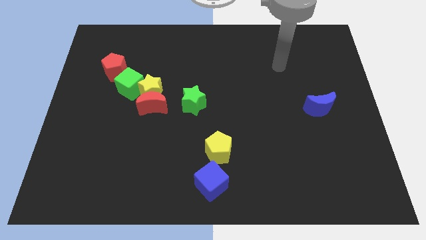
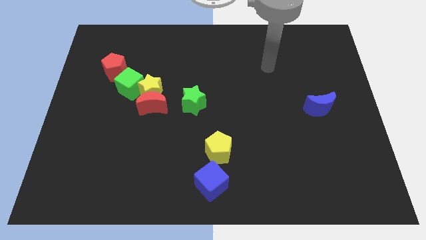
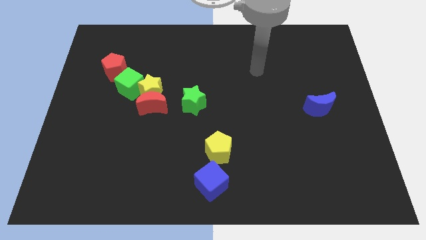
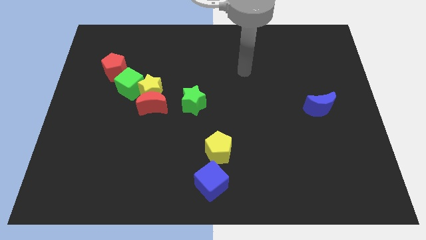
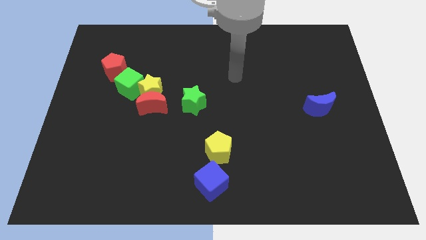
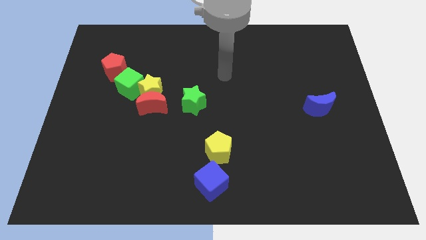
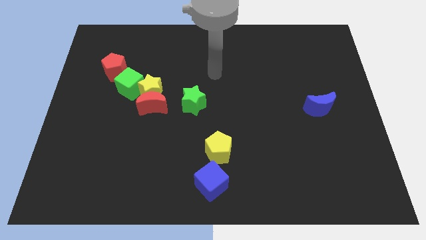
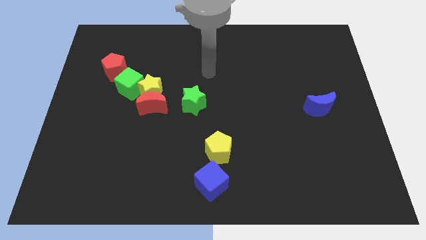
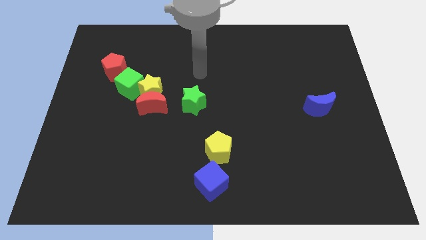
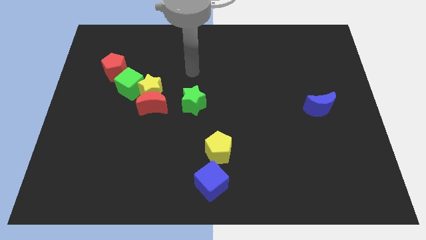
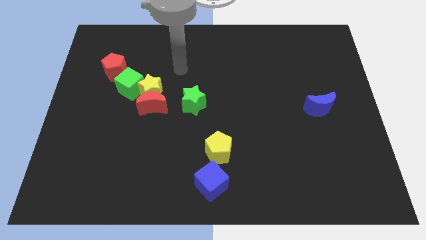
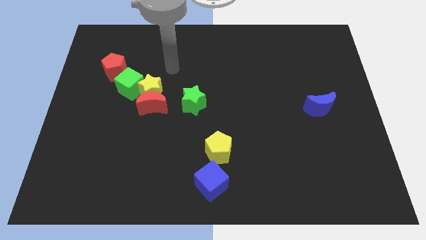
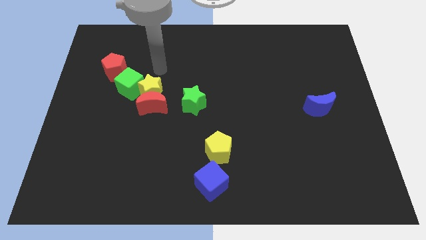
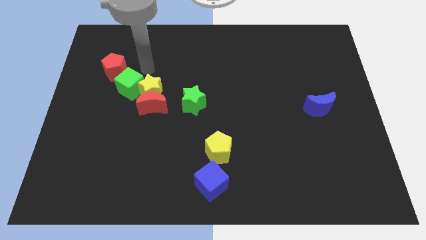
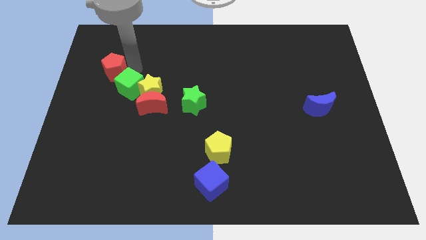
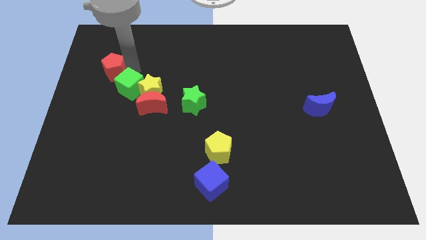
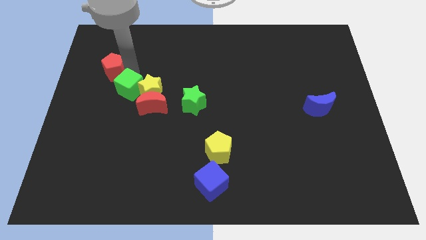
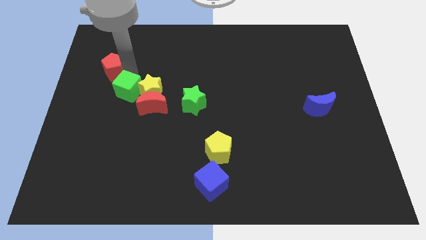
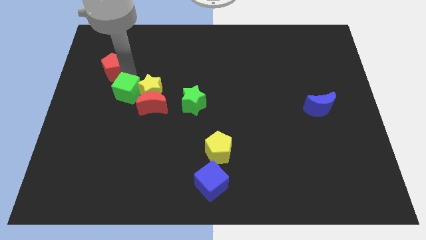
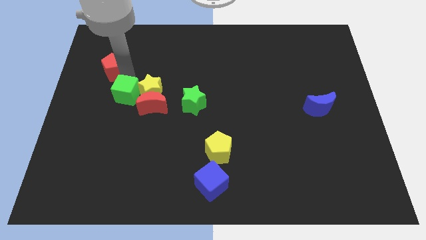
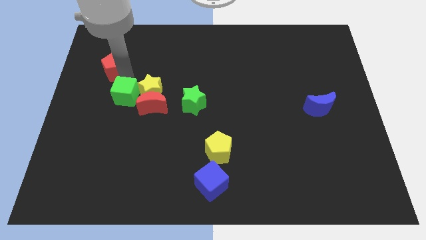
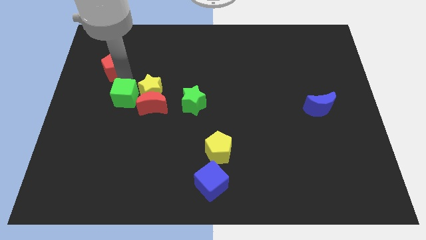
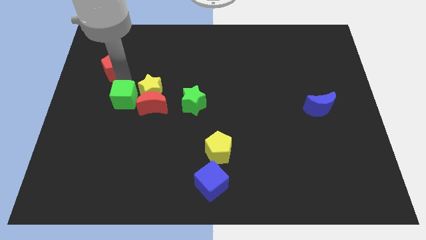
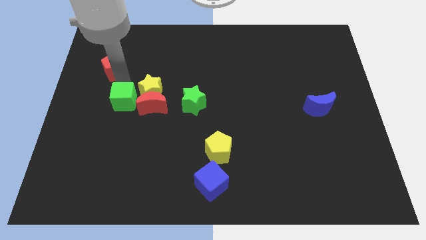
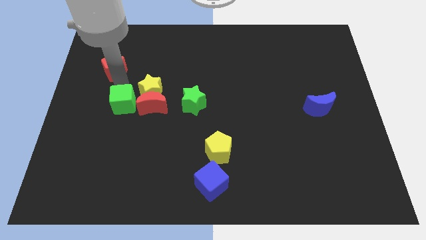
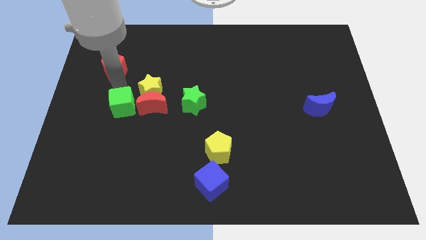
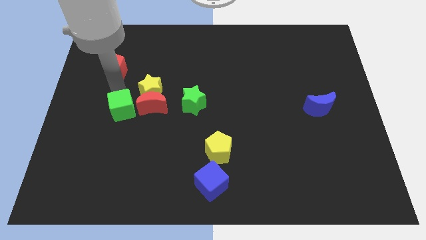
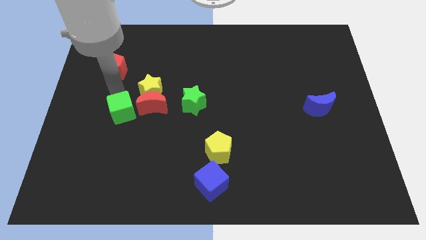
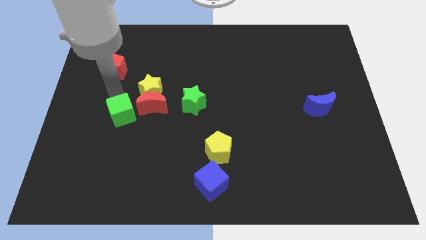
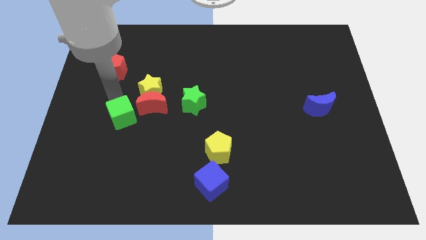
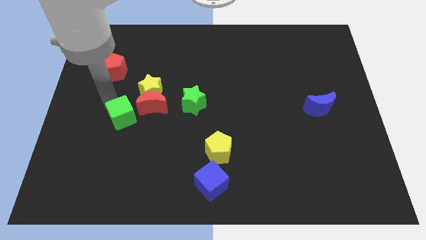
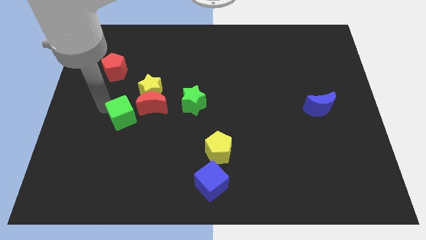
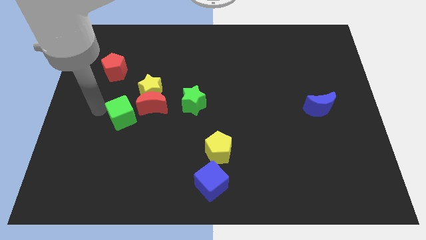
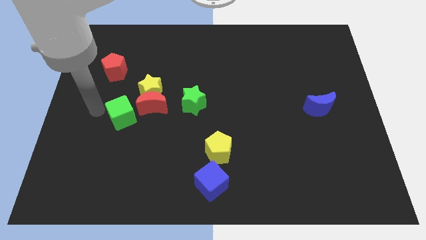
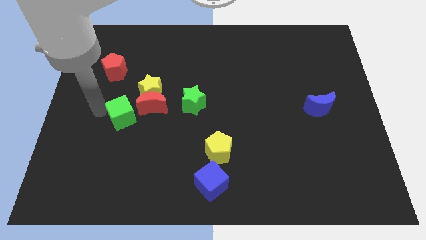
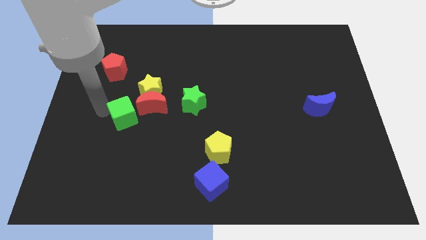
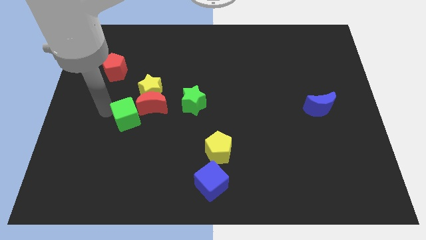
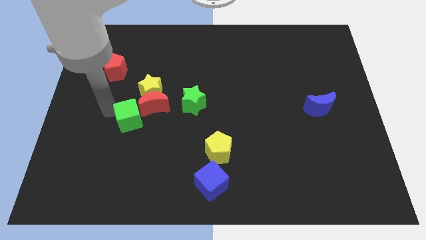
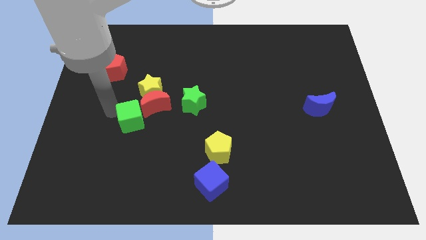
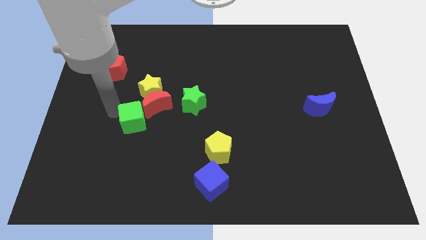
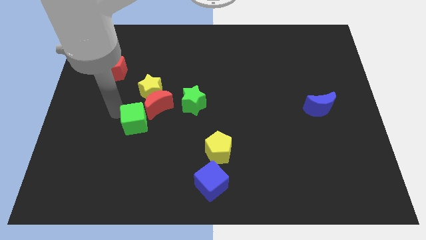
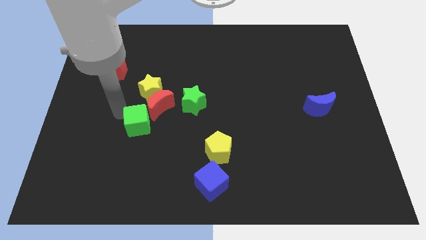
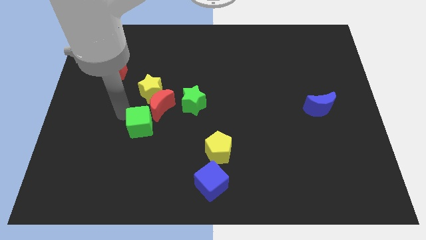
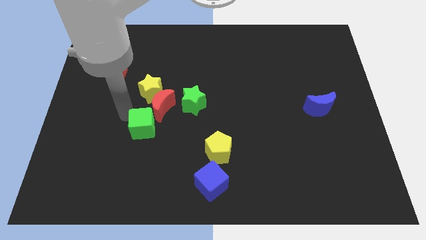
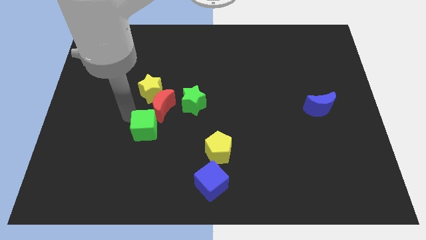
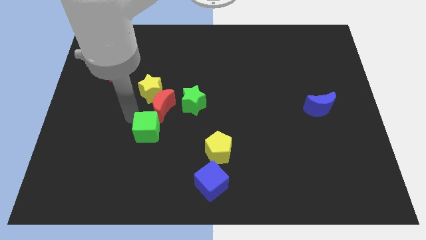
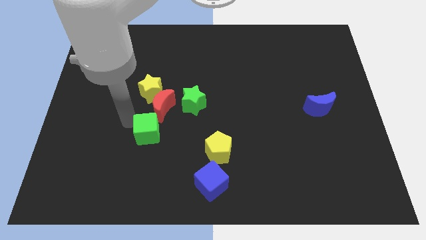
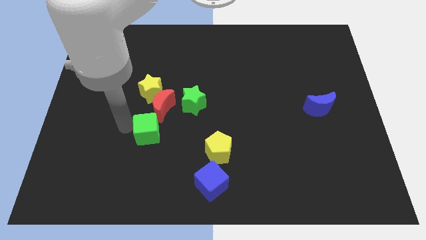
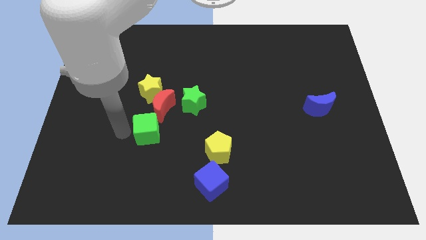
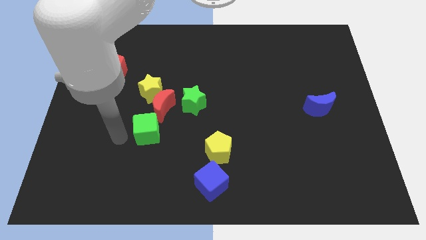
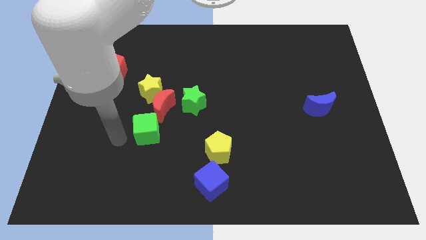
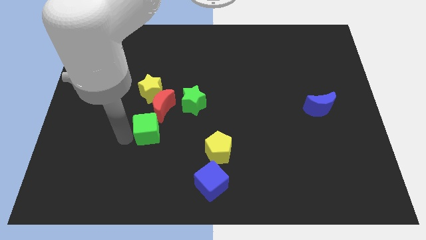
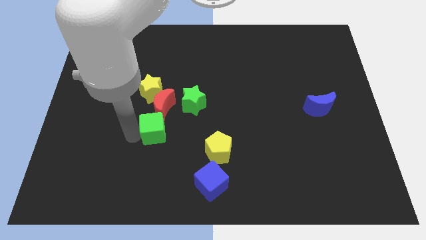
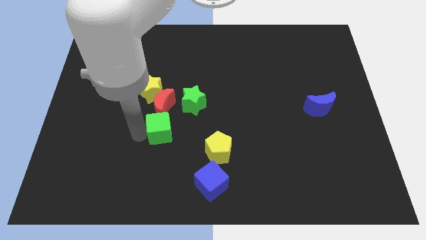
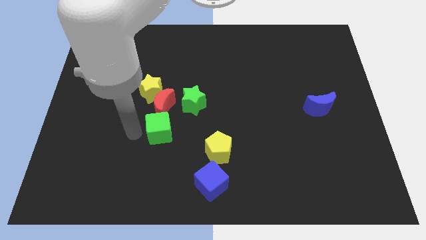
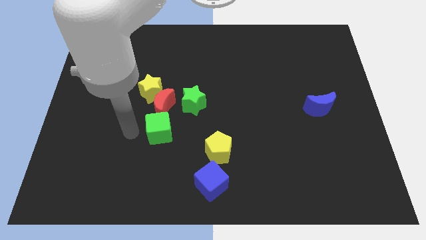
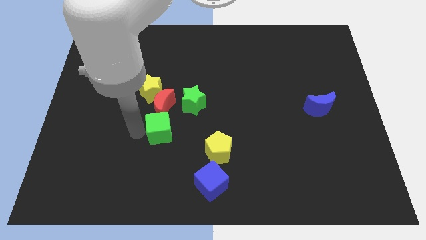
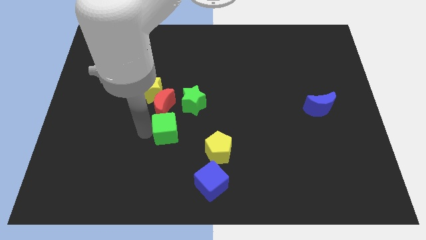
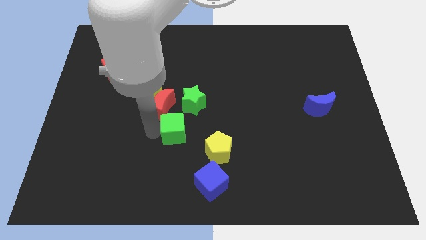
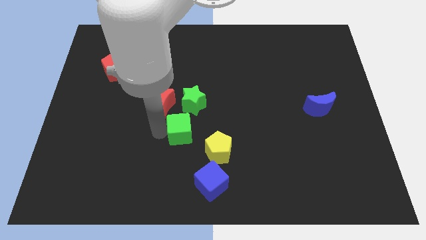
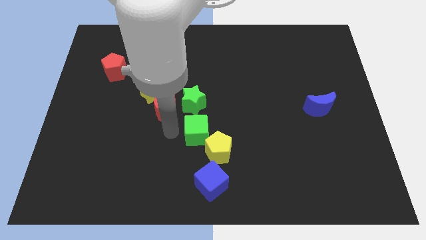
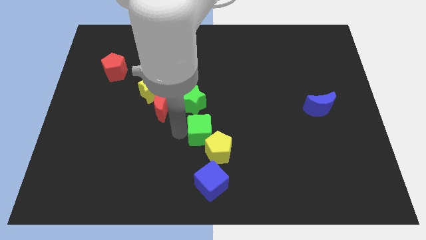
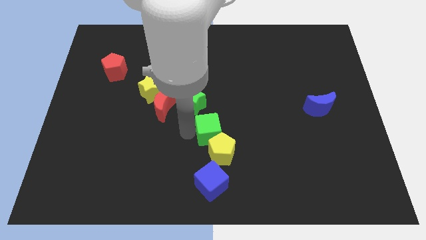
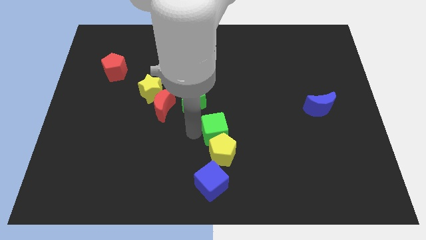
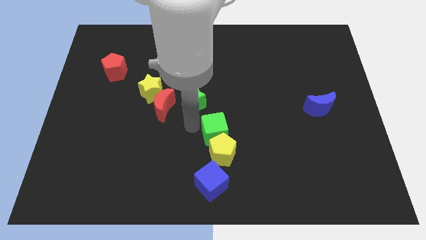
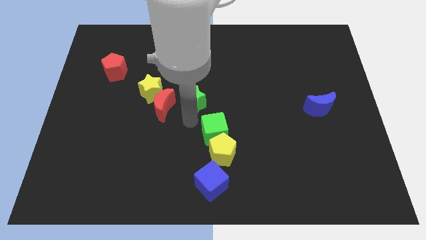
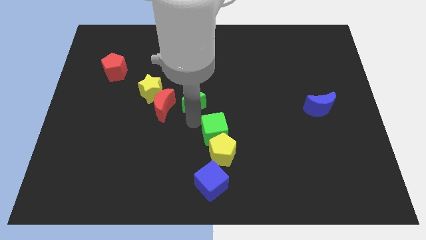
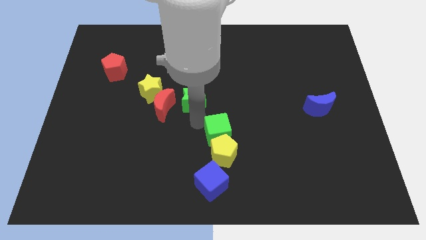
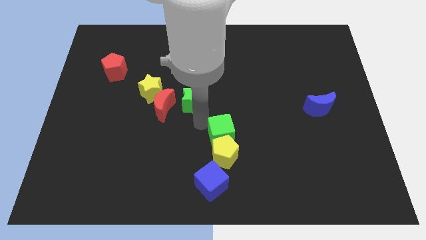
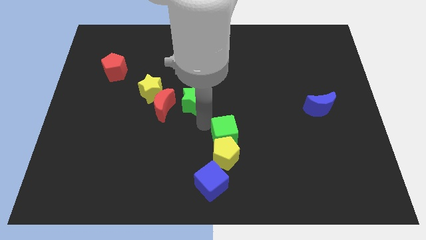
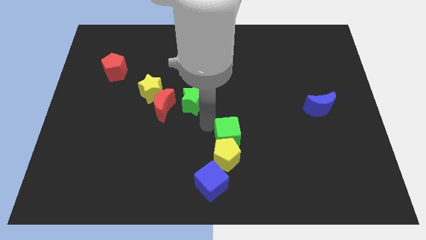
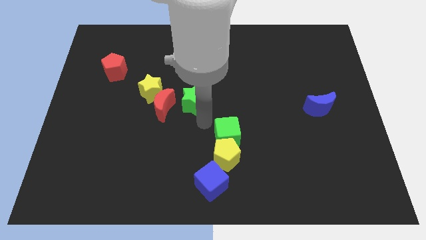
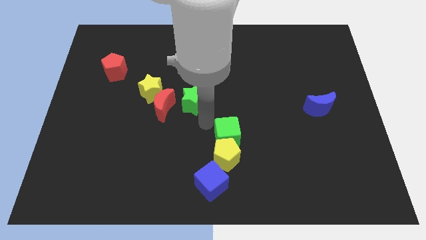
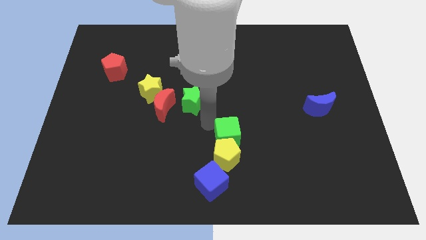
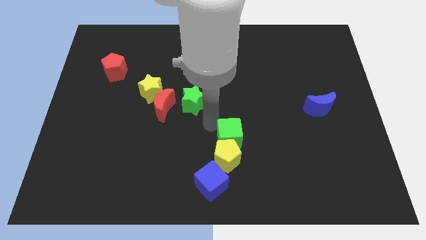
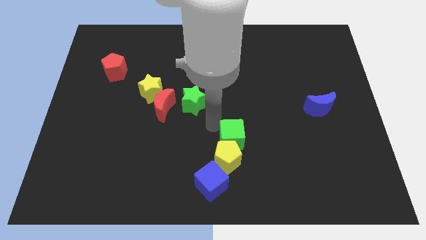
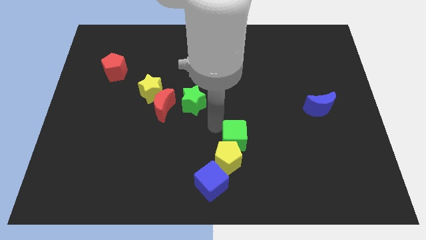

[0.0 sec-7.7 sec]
put the green cube to the top right side of the blue cube
